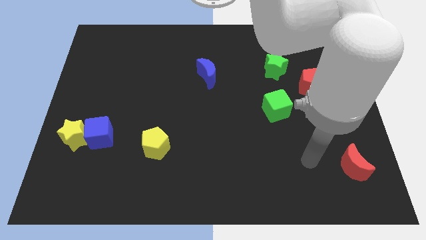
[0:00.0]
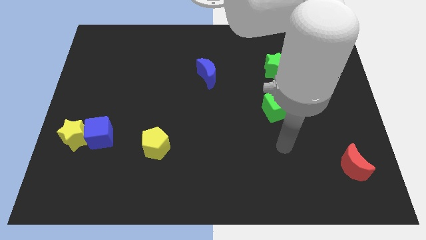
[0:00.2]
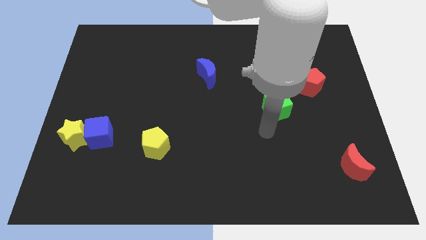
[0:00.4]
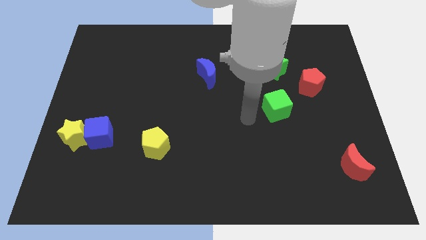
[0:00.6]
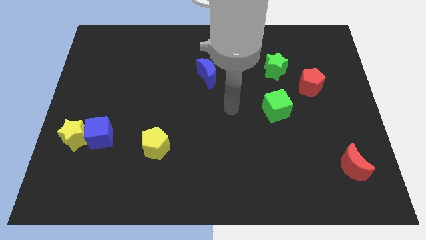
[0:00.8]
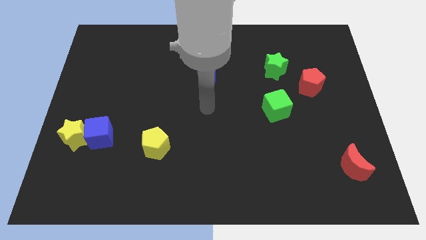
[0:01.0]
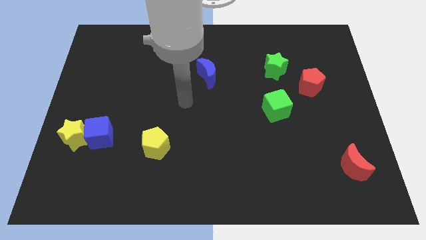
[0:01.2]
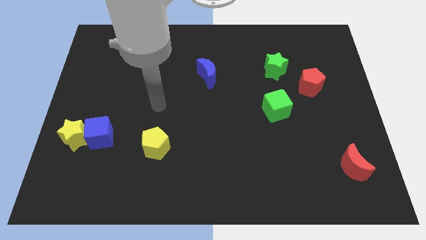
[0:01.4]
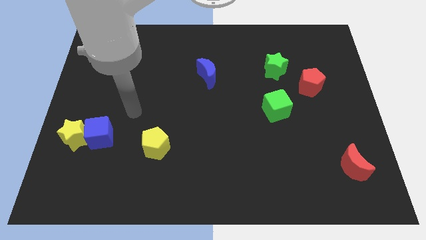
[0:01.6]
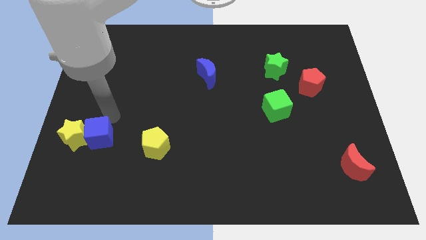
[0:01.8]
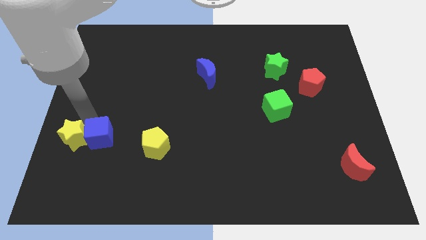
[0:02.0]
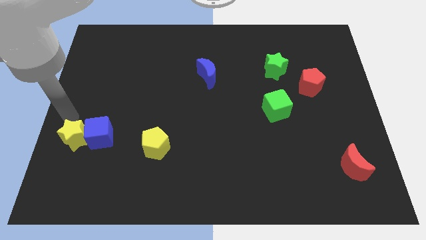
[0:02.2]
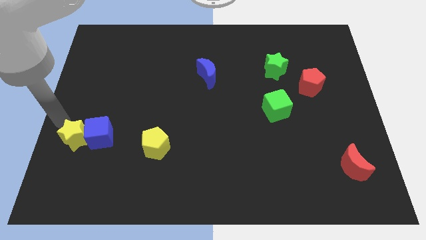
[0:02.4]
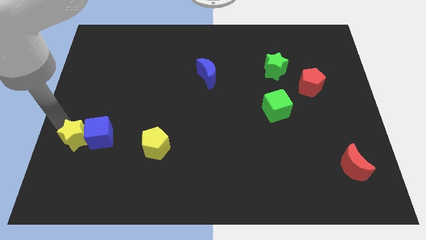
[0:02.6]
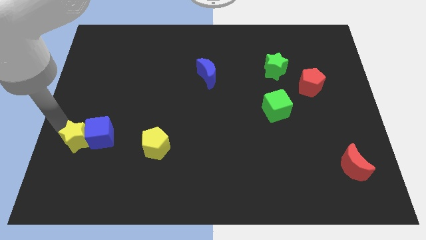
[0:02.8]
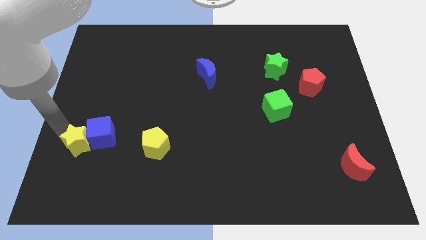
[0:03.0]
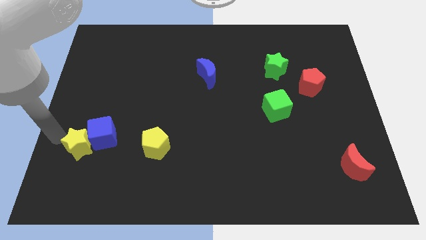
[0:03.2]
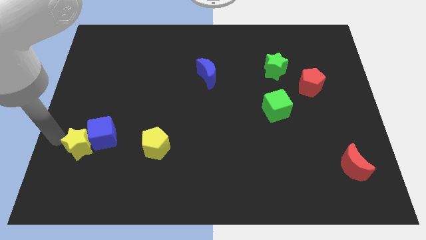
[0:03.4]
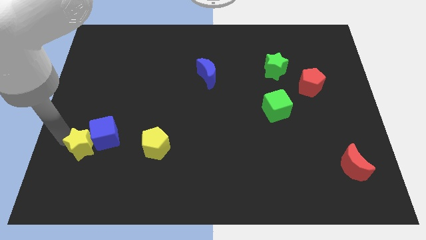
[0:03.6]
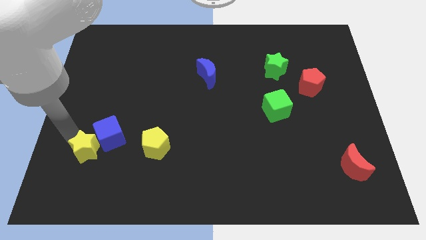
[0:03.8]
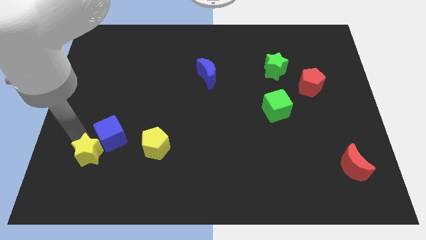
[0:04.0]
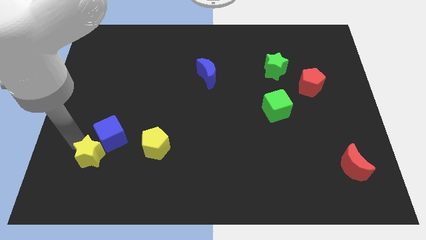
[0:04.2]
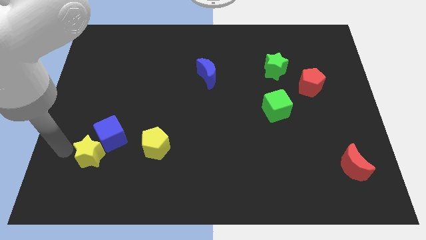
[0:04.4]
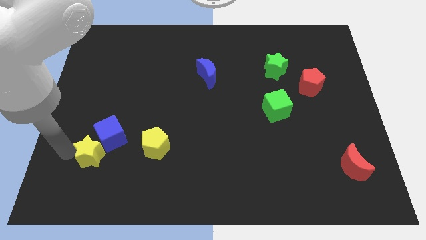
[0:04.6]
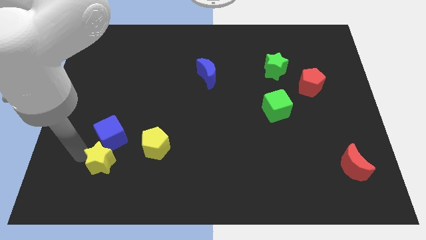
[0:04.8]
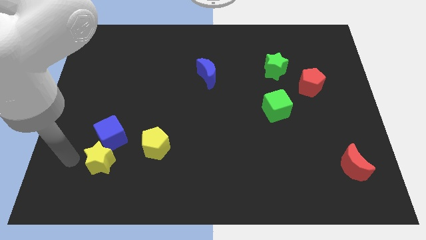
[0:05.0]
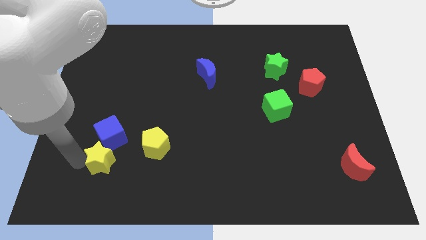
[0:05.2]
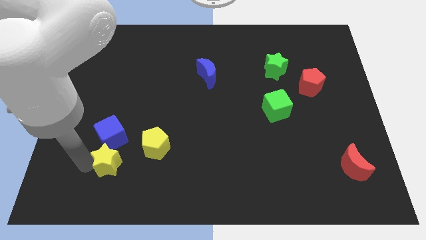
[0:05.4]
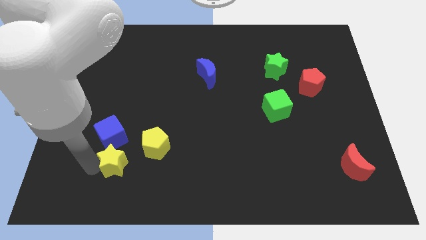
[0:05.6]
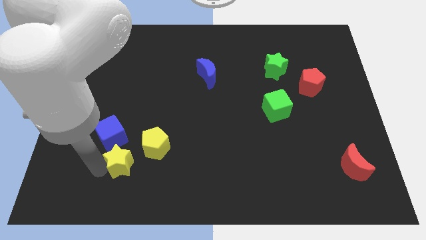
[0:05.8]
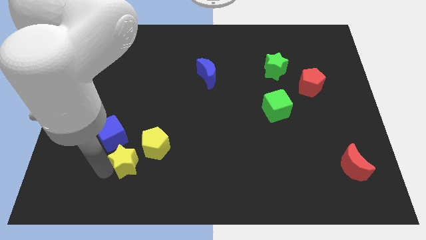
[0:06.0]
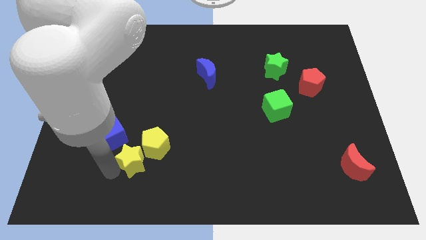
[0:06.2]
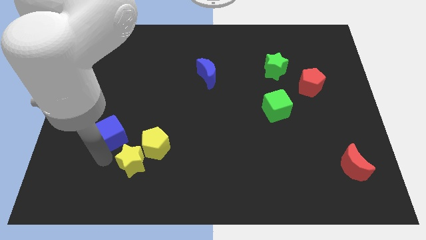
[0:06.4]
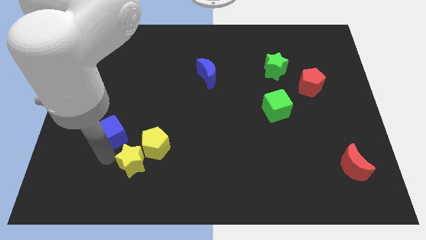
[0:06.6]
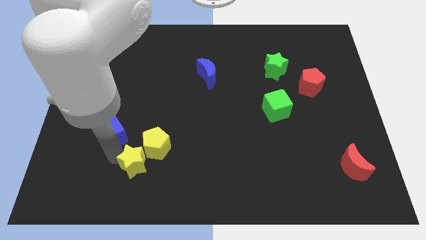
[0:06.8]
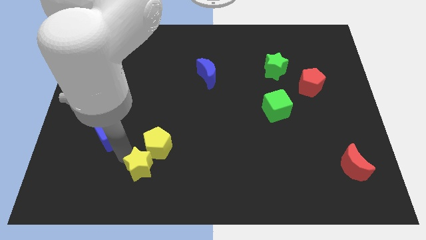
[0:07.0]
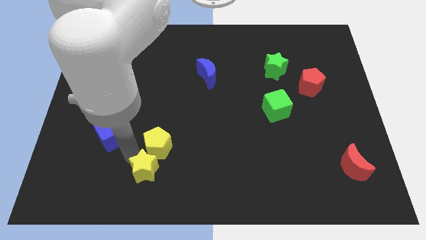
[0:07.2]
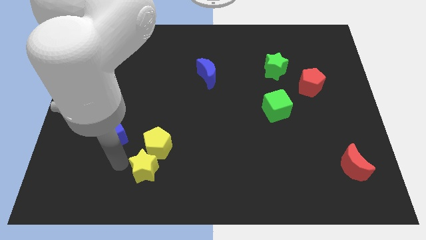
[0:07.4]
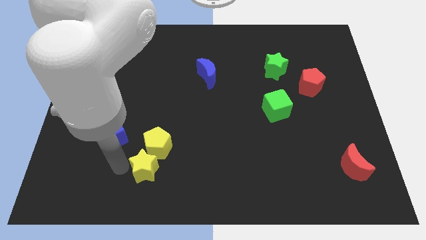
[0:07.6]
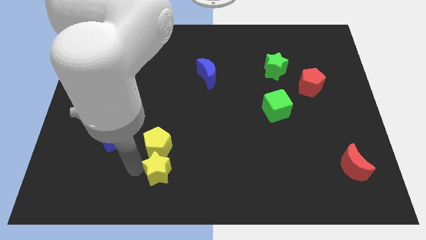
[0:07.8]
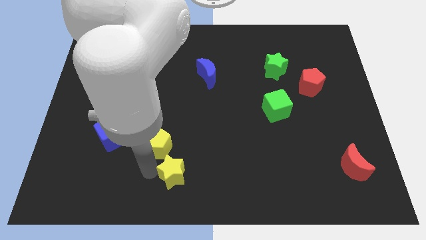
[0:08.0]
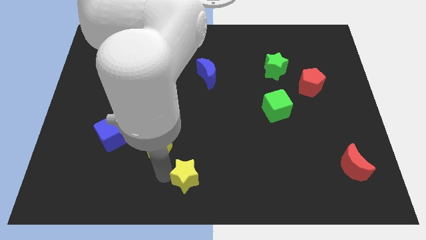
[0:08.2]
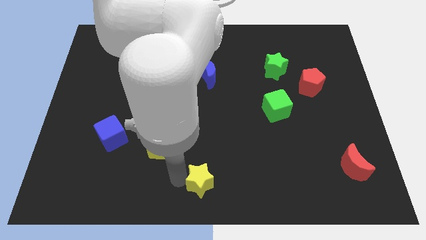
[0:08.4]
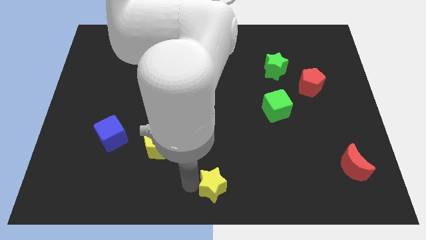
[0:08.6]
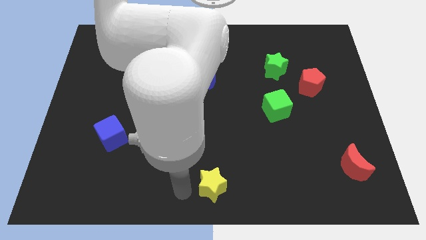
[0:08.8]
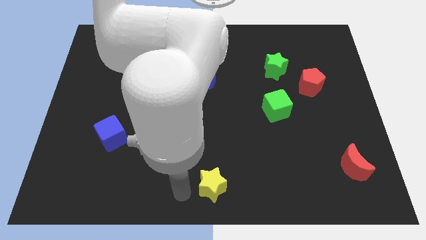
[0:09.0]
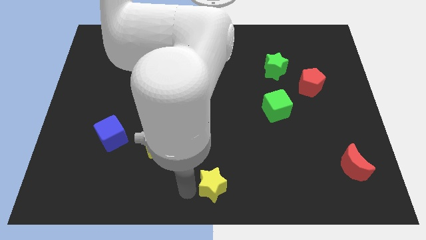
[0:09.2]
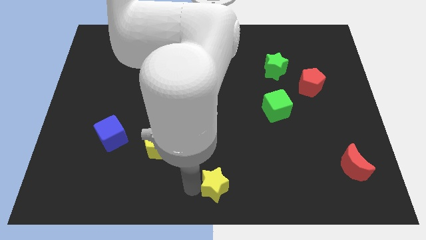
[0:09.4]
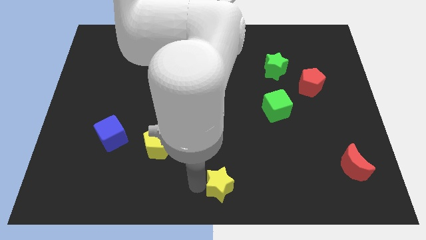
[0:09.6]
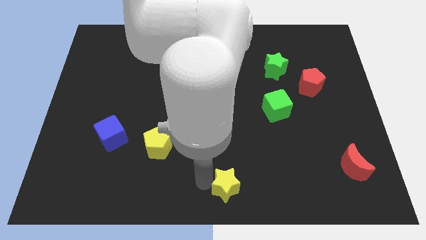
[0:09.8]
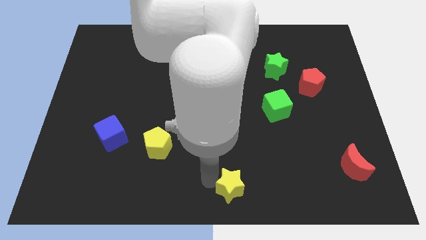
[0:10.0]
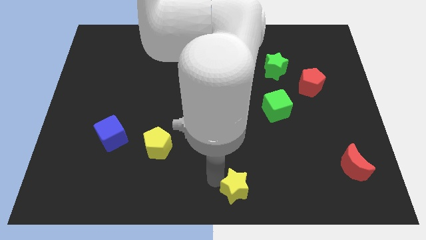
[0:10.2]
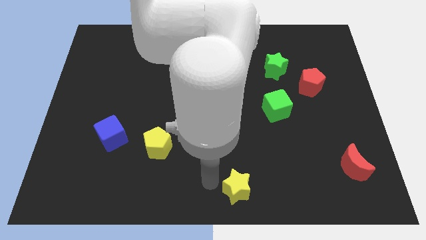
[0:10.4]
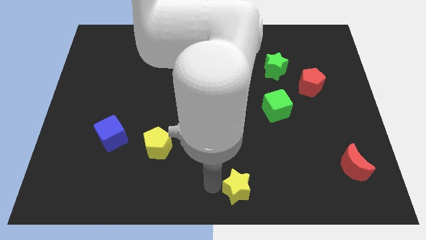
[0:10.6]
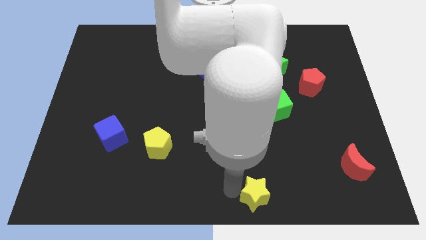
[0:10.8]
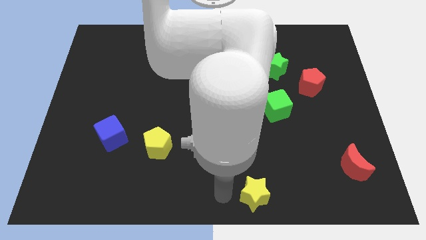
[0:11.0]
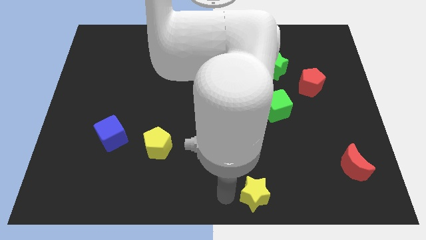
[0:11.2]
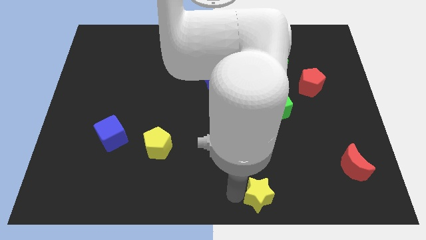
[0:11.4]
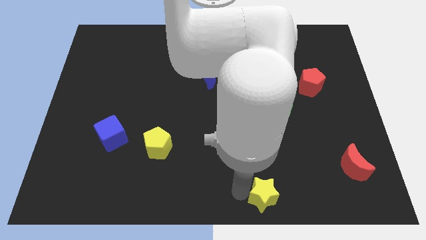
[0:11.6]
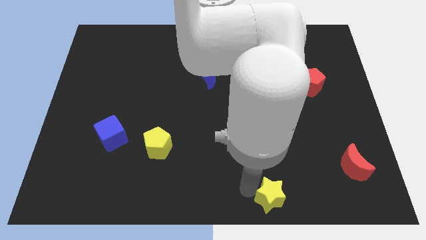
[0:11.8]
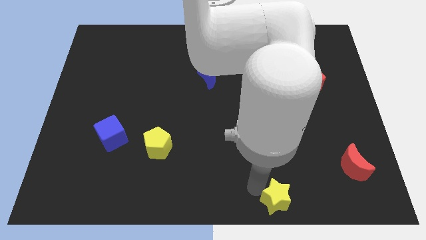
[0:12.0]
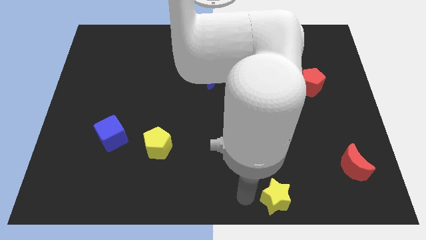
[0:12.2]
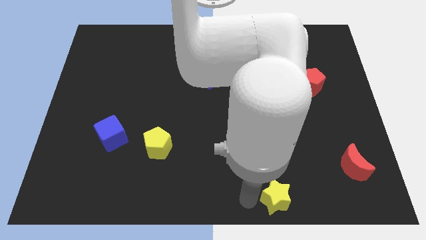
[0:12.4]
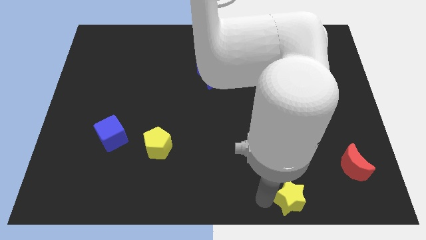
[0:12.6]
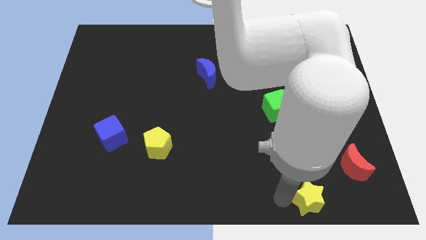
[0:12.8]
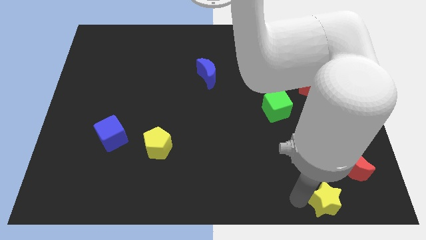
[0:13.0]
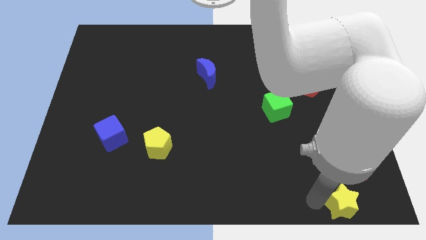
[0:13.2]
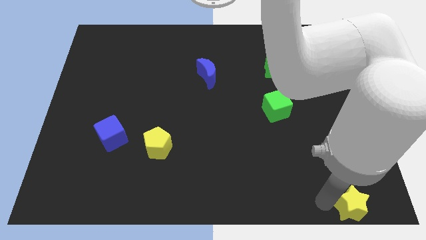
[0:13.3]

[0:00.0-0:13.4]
slide the yellow star to the bottom right corner

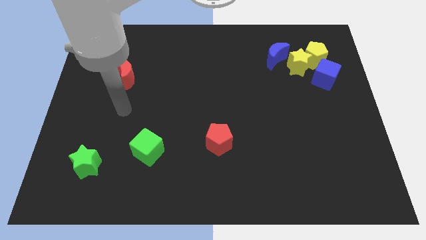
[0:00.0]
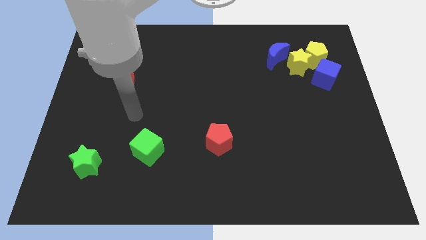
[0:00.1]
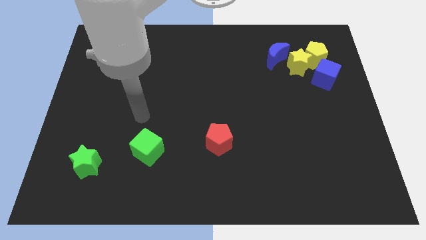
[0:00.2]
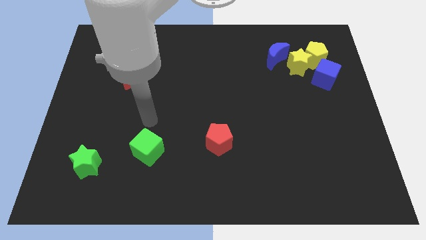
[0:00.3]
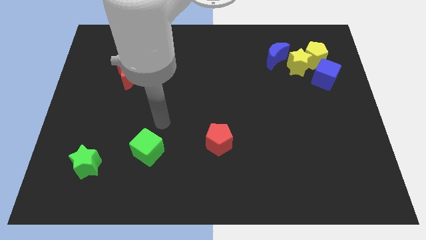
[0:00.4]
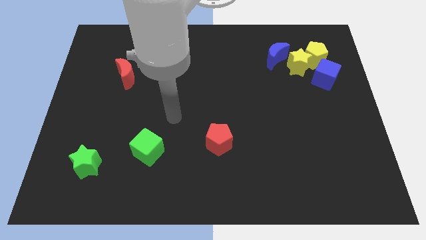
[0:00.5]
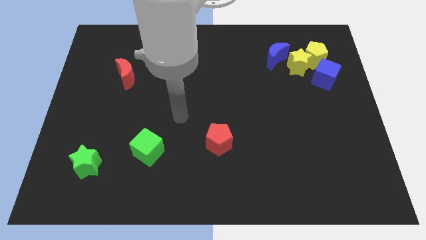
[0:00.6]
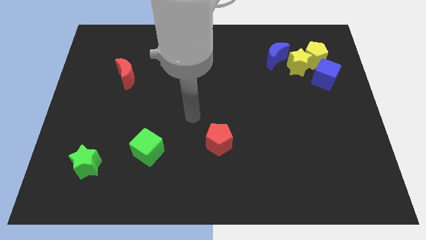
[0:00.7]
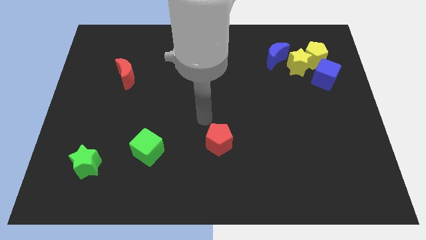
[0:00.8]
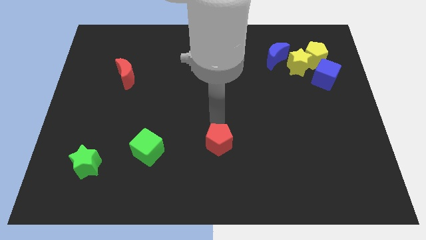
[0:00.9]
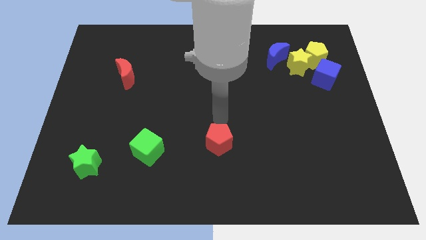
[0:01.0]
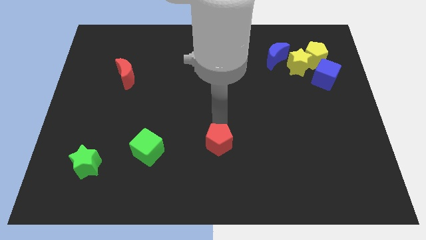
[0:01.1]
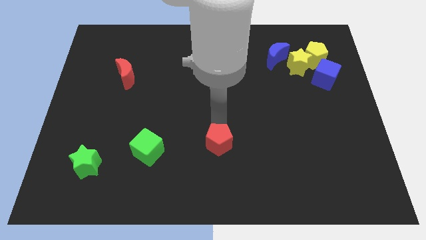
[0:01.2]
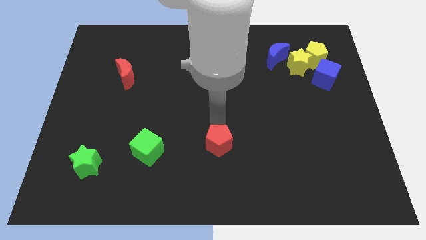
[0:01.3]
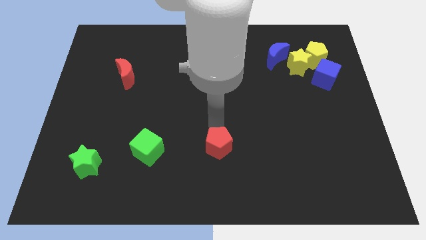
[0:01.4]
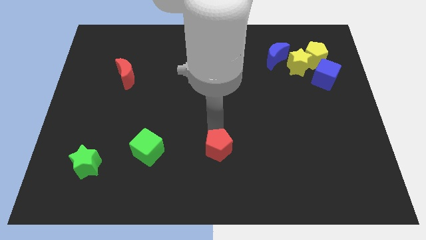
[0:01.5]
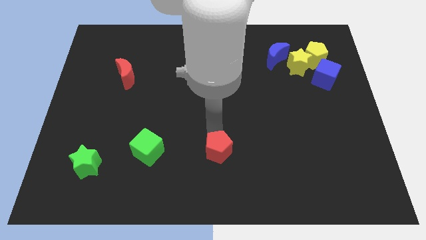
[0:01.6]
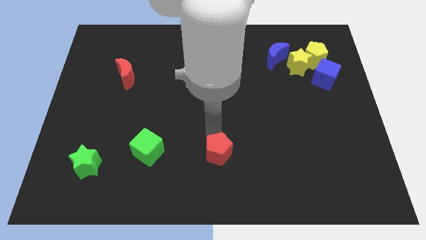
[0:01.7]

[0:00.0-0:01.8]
slide the red pentagon to the bottom
